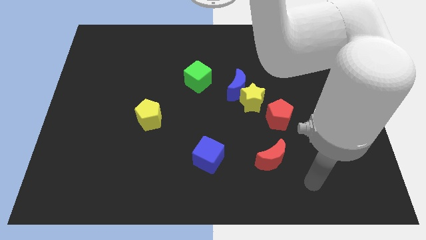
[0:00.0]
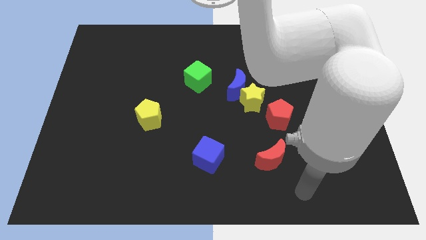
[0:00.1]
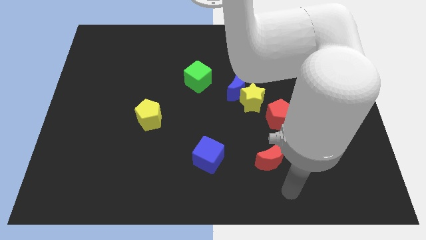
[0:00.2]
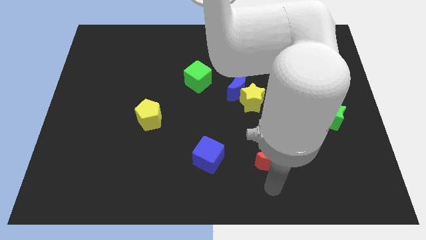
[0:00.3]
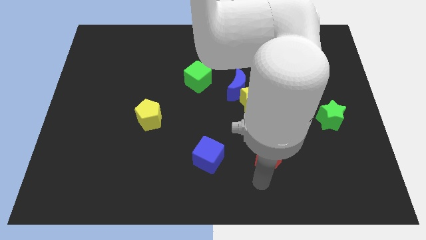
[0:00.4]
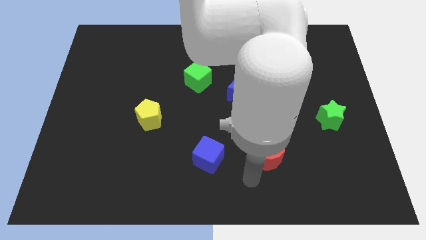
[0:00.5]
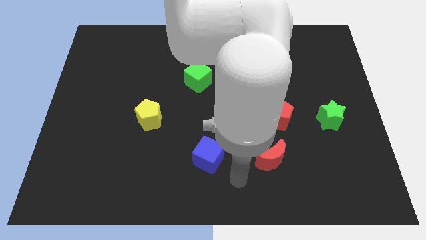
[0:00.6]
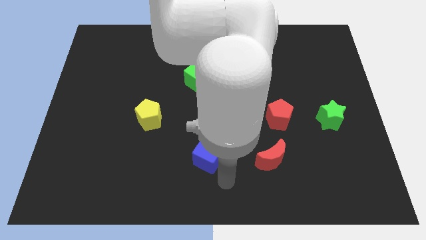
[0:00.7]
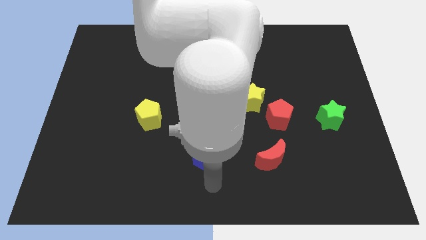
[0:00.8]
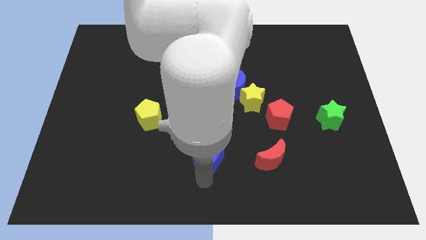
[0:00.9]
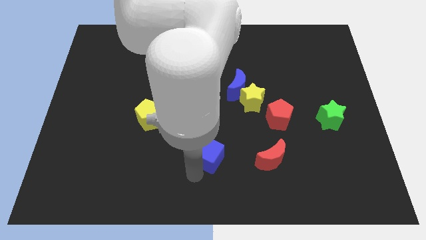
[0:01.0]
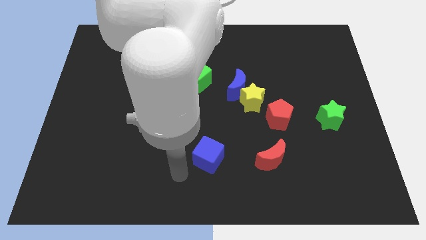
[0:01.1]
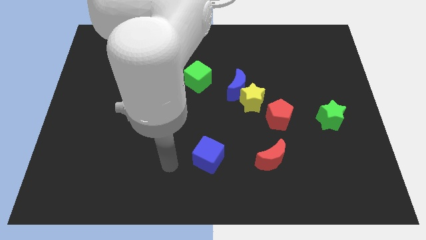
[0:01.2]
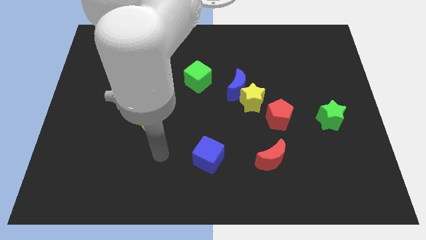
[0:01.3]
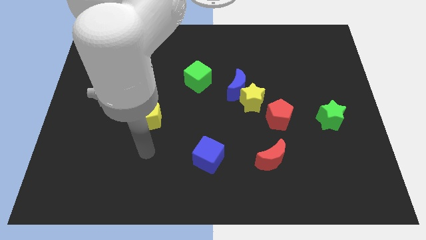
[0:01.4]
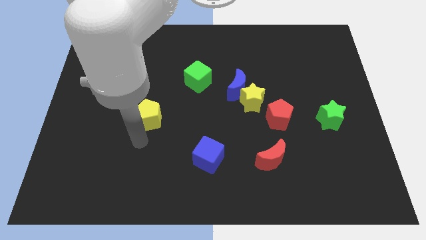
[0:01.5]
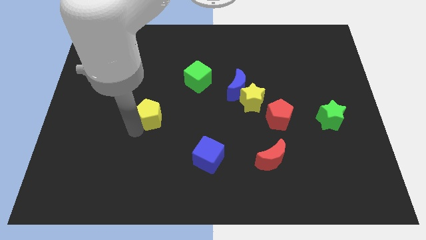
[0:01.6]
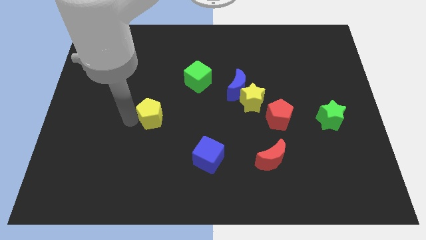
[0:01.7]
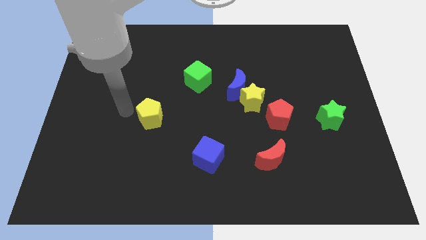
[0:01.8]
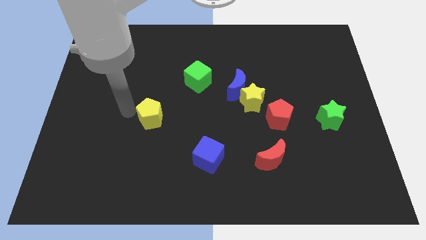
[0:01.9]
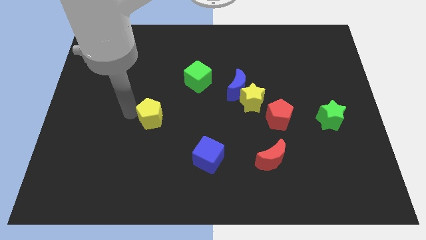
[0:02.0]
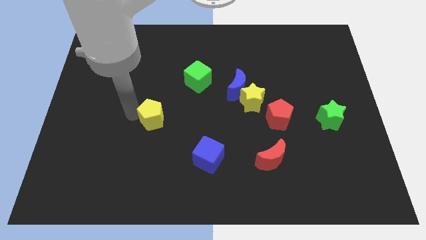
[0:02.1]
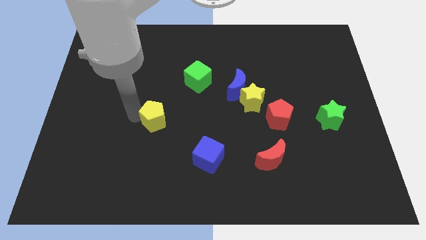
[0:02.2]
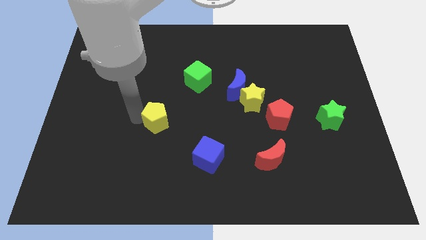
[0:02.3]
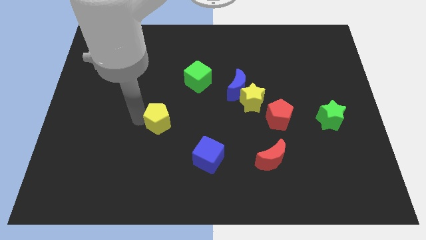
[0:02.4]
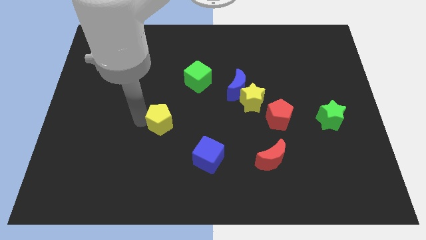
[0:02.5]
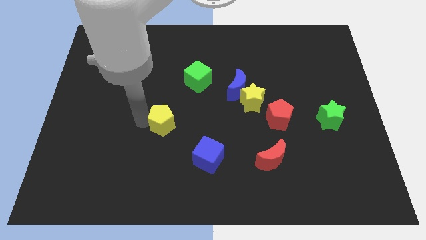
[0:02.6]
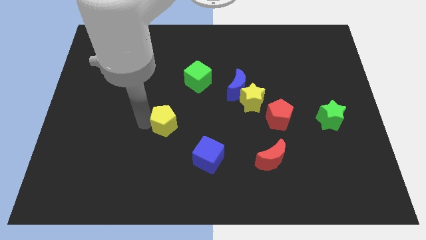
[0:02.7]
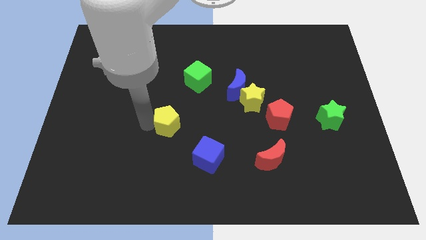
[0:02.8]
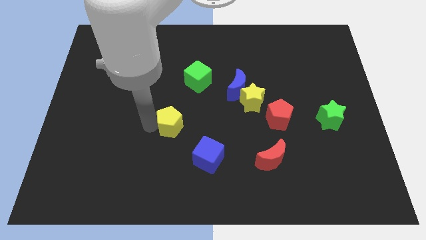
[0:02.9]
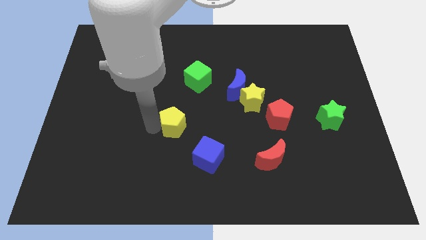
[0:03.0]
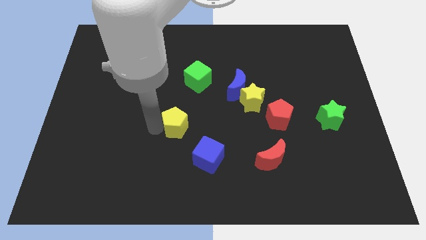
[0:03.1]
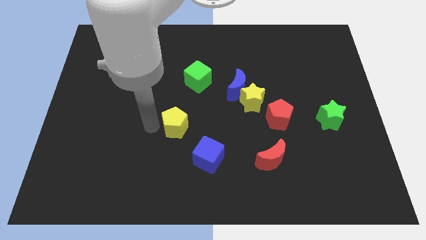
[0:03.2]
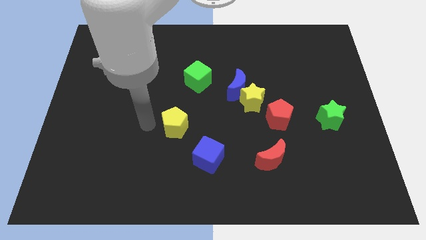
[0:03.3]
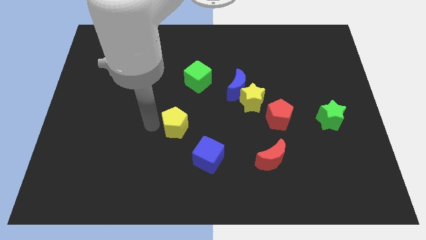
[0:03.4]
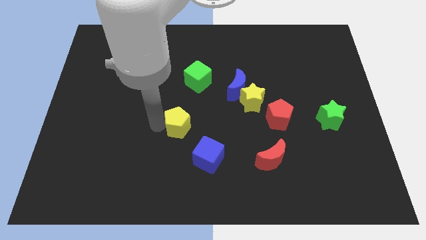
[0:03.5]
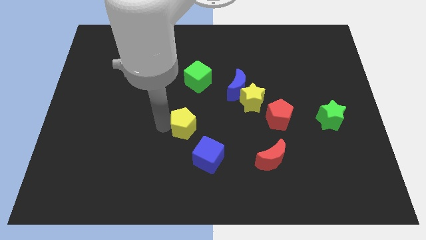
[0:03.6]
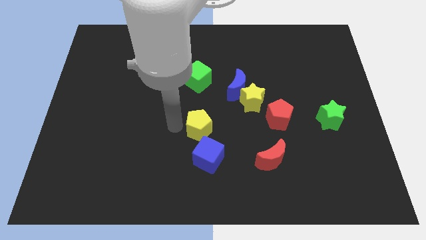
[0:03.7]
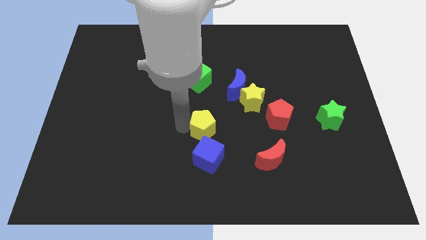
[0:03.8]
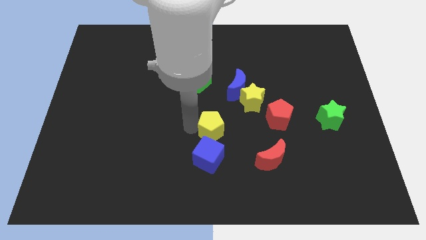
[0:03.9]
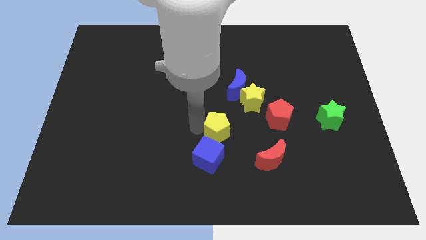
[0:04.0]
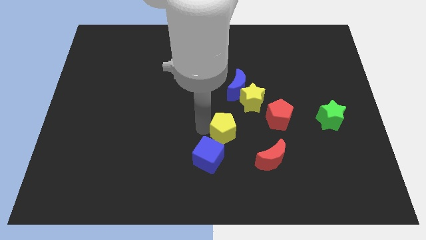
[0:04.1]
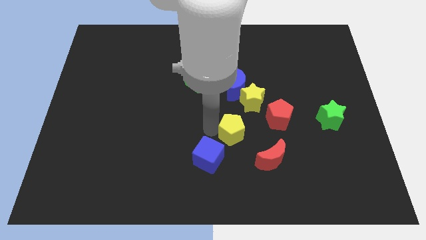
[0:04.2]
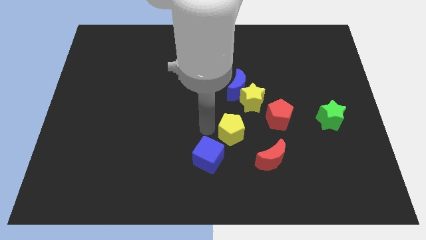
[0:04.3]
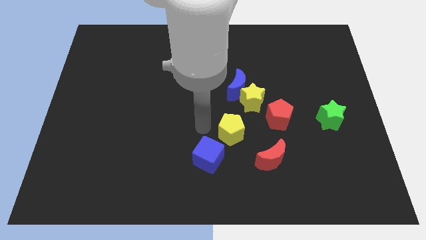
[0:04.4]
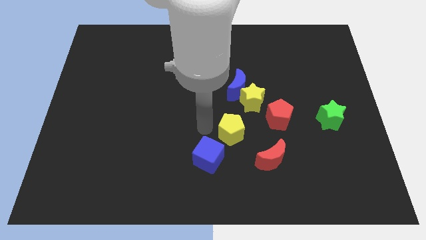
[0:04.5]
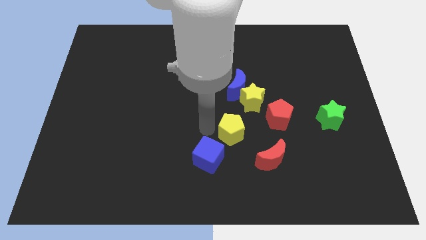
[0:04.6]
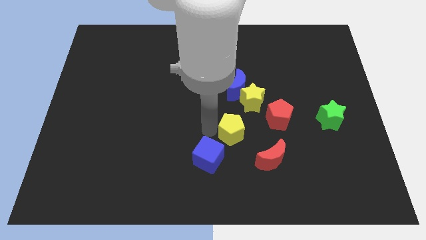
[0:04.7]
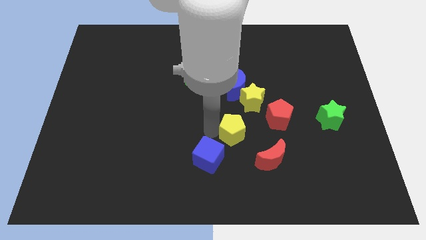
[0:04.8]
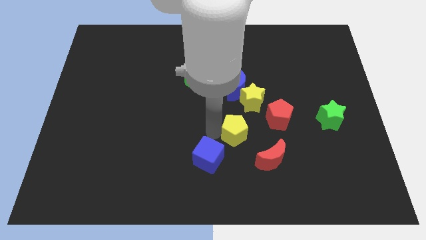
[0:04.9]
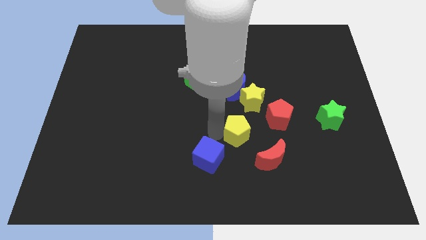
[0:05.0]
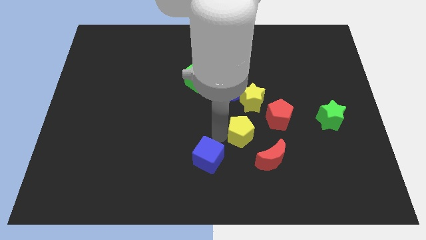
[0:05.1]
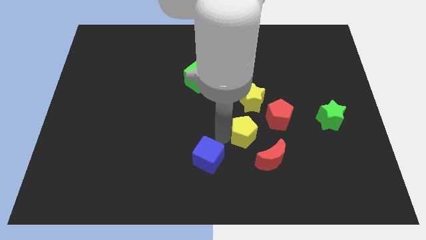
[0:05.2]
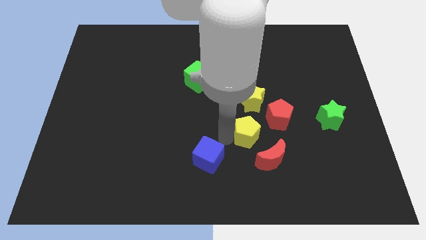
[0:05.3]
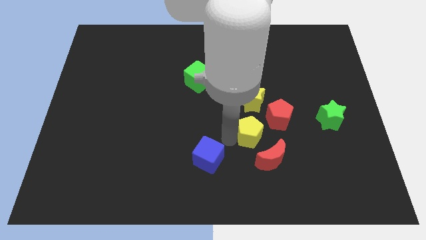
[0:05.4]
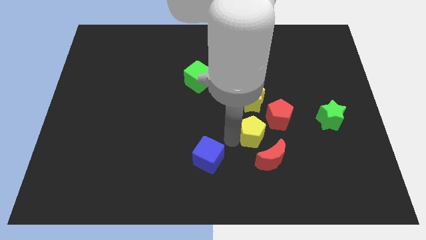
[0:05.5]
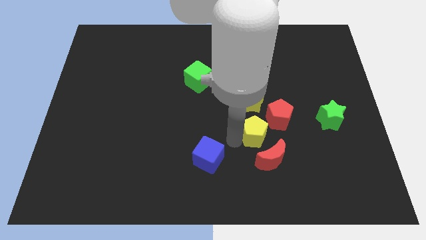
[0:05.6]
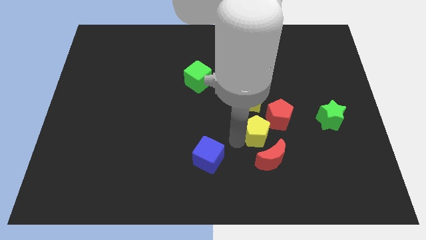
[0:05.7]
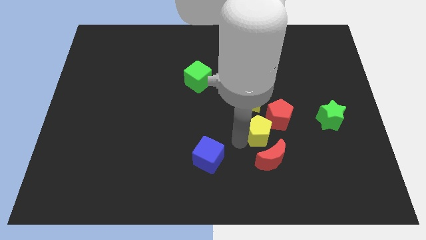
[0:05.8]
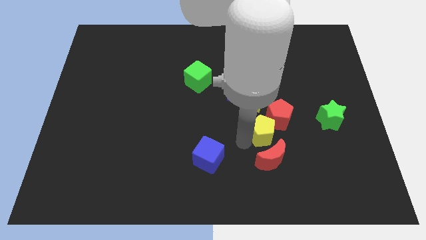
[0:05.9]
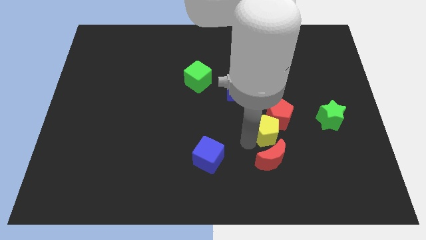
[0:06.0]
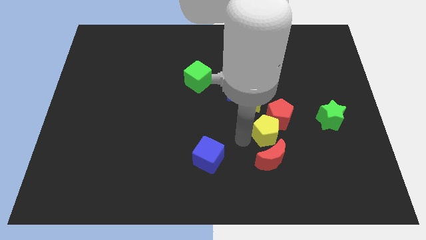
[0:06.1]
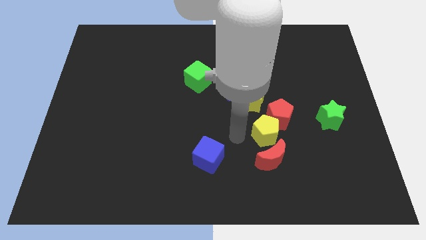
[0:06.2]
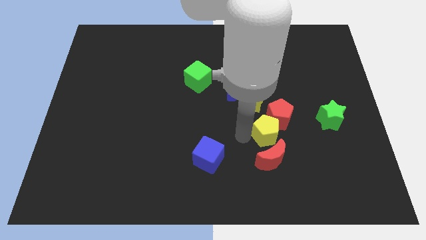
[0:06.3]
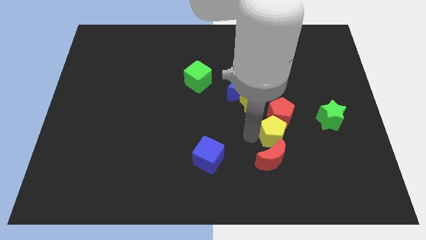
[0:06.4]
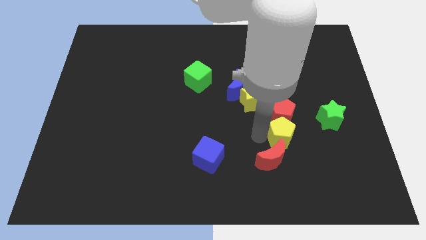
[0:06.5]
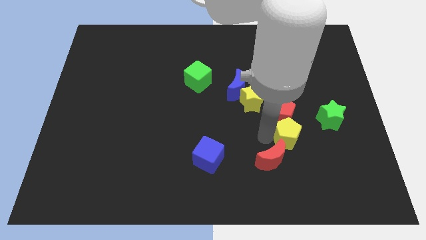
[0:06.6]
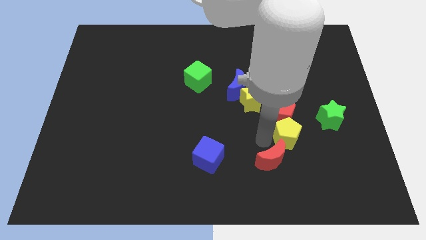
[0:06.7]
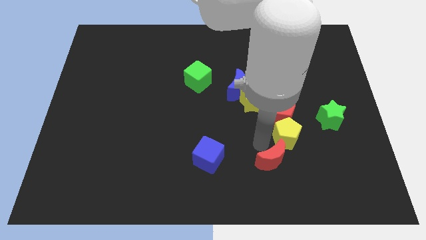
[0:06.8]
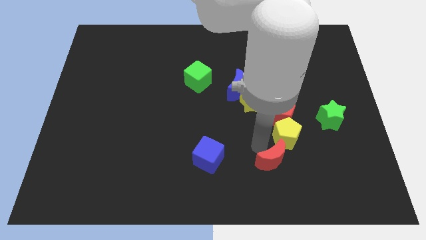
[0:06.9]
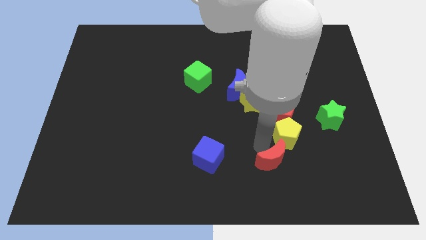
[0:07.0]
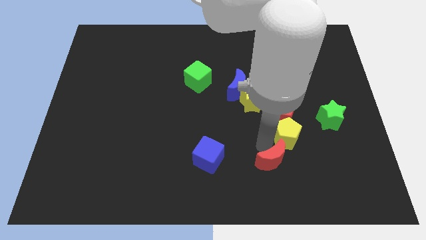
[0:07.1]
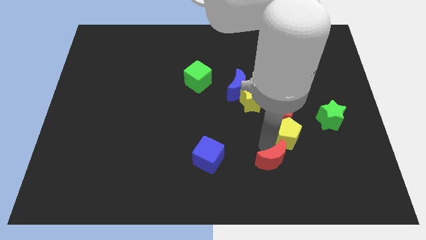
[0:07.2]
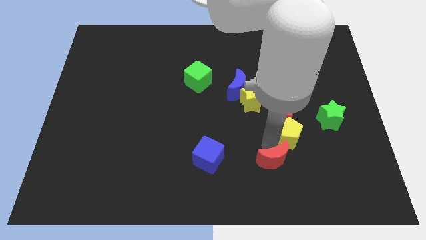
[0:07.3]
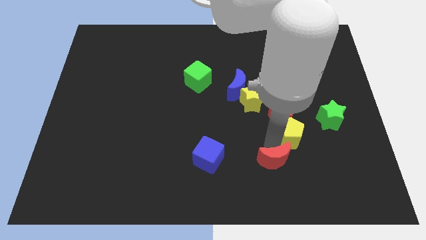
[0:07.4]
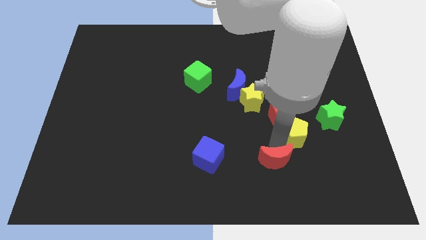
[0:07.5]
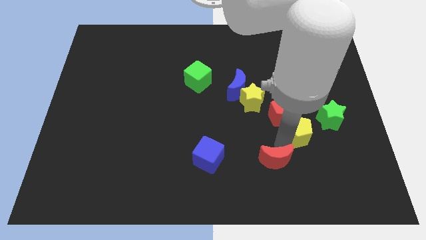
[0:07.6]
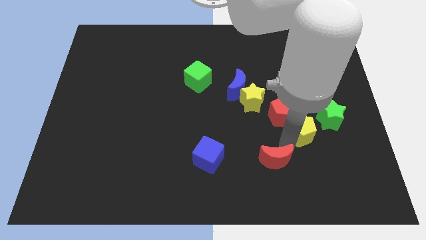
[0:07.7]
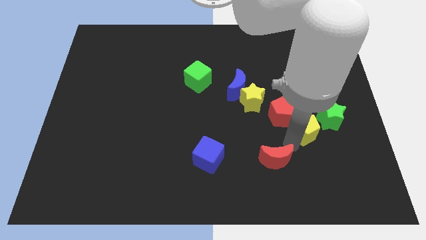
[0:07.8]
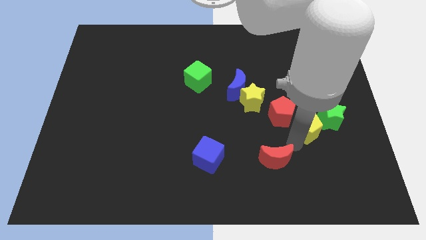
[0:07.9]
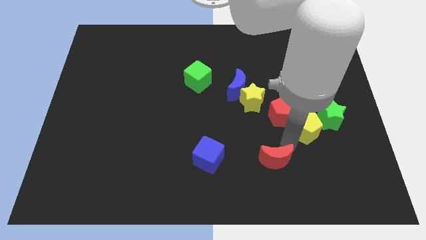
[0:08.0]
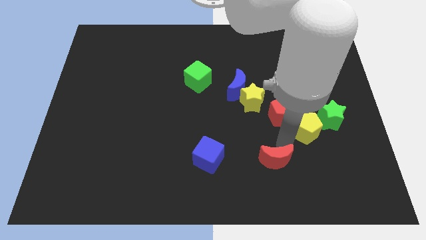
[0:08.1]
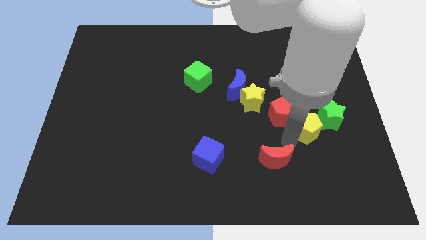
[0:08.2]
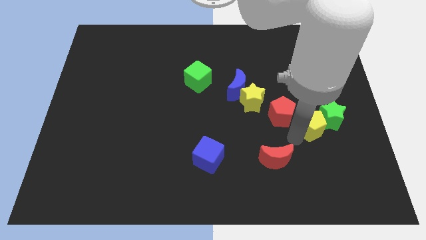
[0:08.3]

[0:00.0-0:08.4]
put the yellow pentagon towards the green star

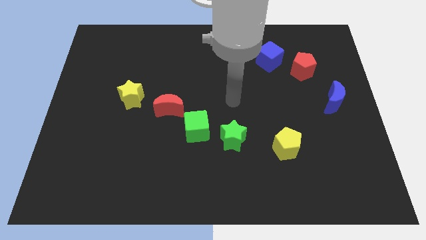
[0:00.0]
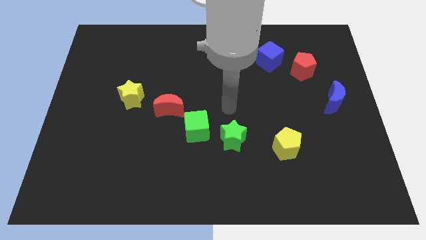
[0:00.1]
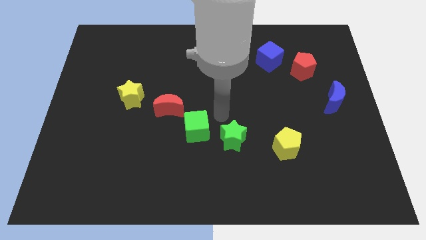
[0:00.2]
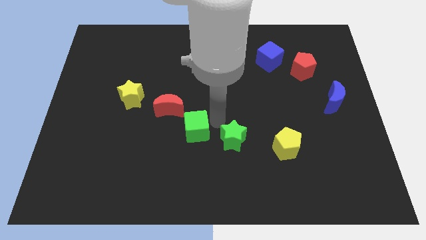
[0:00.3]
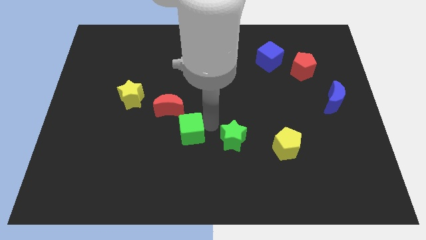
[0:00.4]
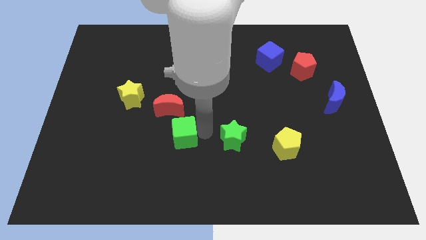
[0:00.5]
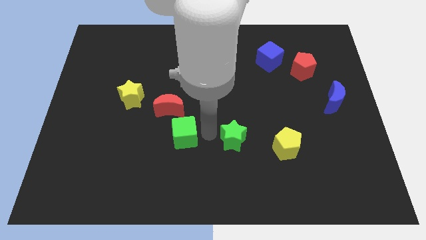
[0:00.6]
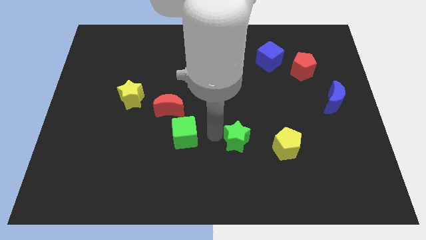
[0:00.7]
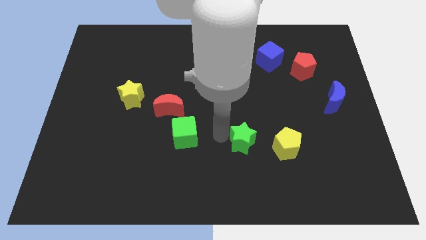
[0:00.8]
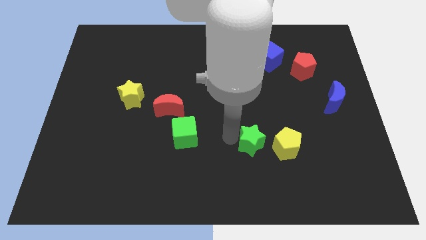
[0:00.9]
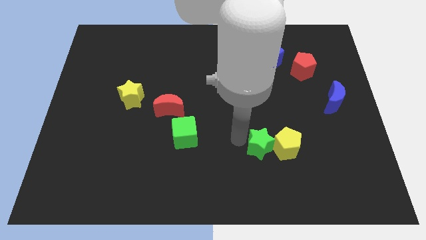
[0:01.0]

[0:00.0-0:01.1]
put the green star next to the yellow pentagon
